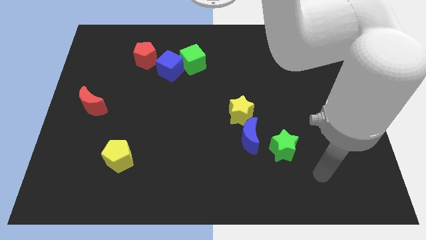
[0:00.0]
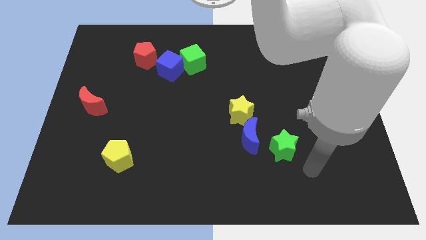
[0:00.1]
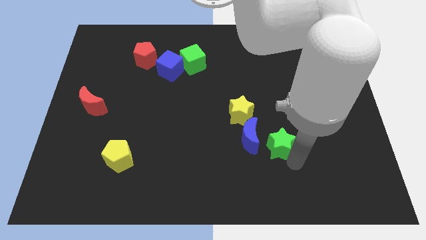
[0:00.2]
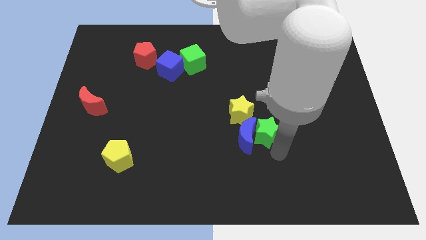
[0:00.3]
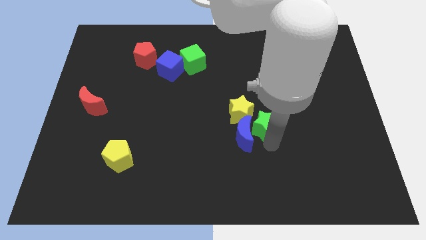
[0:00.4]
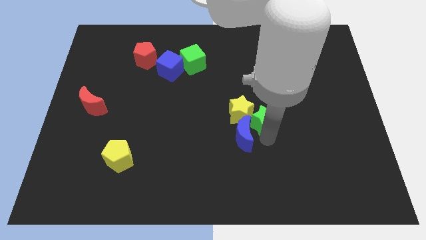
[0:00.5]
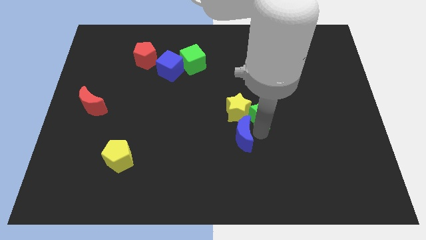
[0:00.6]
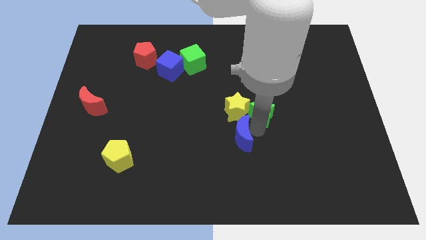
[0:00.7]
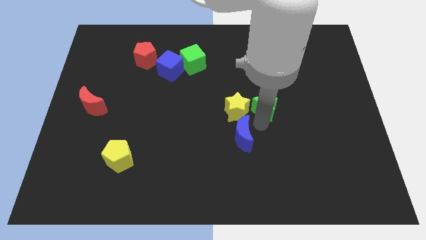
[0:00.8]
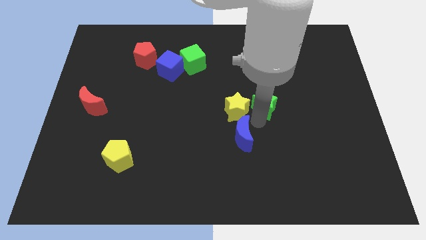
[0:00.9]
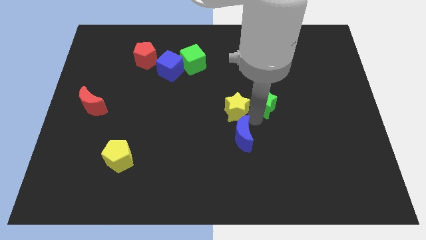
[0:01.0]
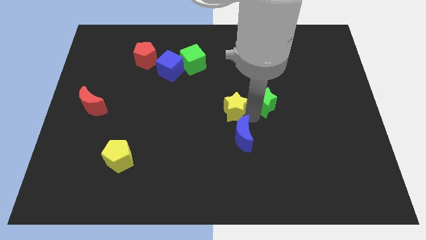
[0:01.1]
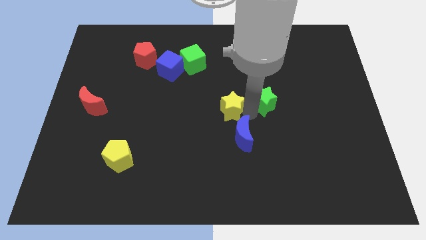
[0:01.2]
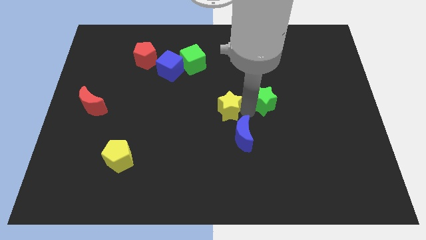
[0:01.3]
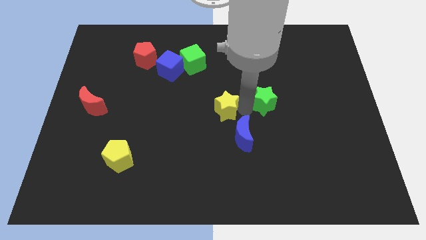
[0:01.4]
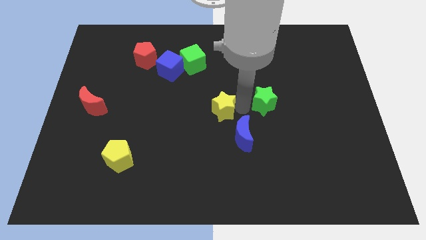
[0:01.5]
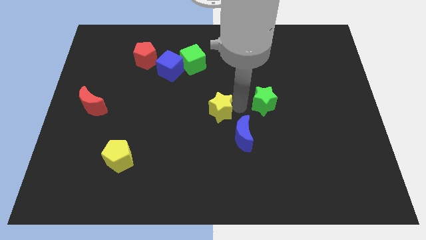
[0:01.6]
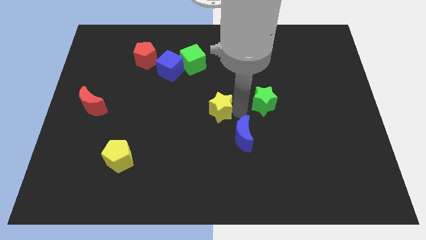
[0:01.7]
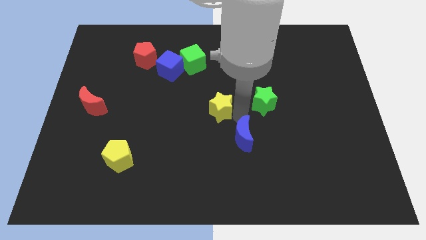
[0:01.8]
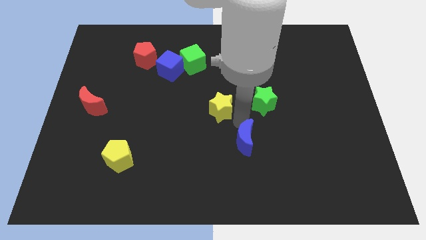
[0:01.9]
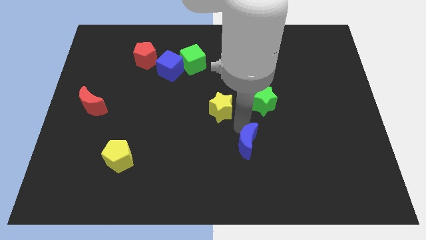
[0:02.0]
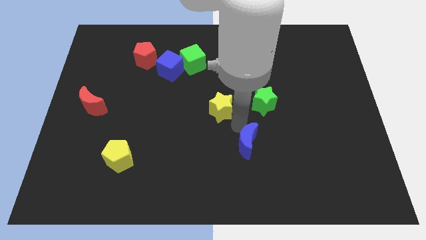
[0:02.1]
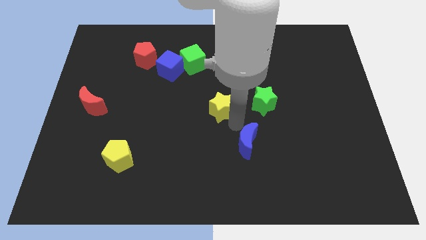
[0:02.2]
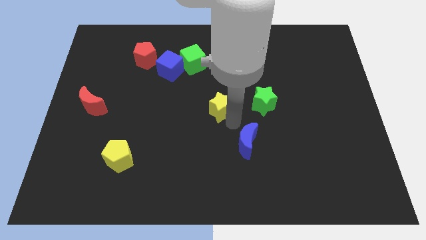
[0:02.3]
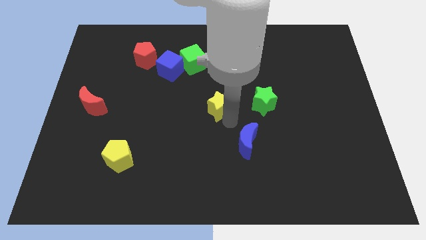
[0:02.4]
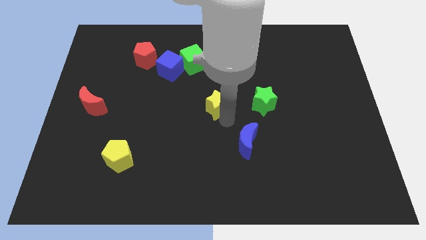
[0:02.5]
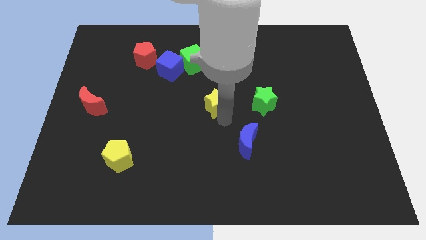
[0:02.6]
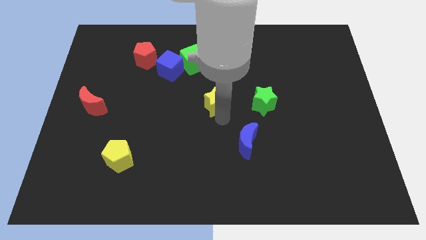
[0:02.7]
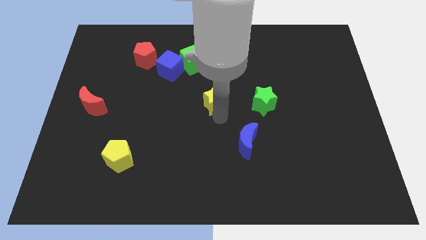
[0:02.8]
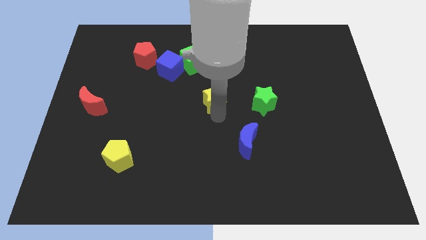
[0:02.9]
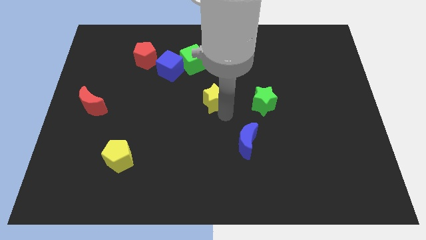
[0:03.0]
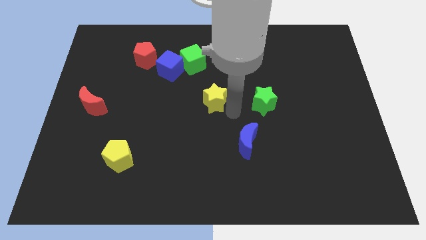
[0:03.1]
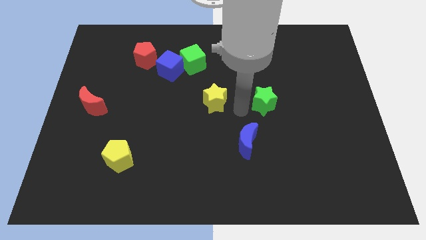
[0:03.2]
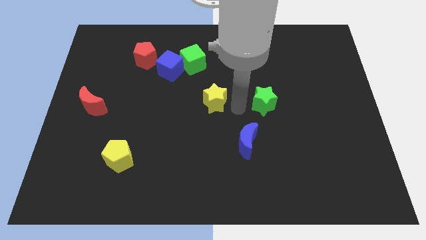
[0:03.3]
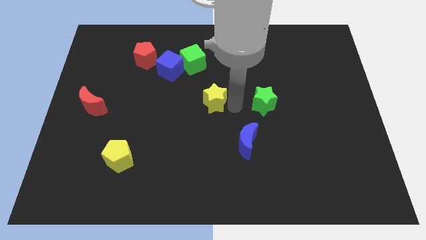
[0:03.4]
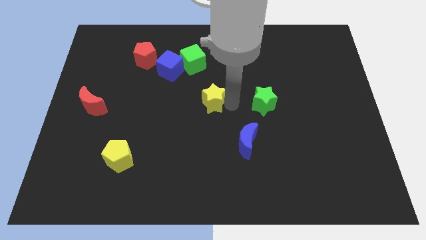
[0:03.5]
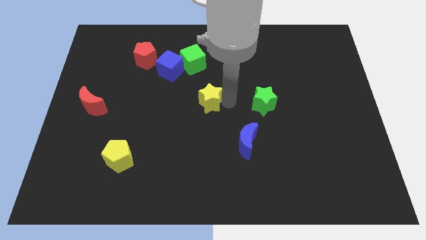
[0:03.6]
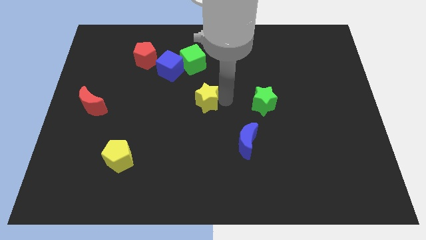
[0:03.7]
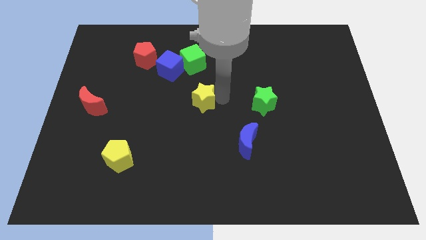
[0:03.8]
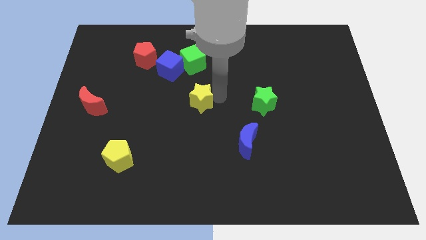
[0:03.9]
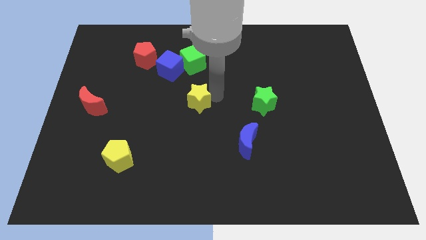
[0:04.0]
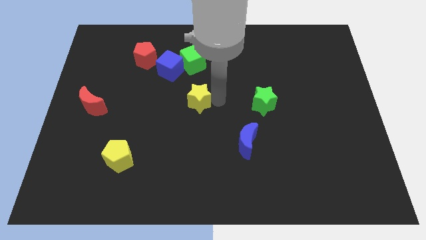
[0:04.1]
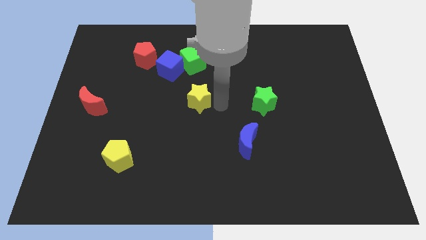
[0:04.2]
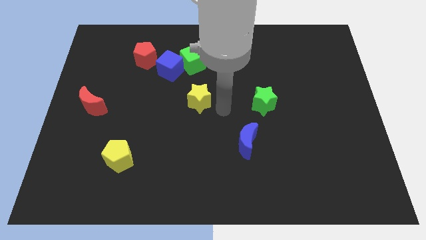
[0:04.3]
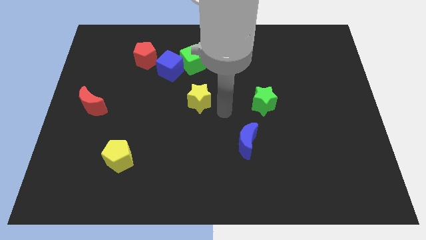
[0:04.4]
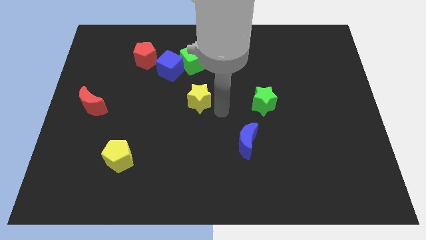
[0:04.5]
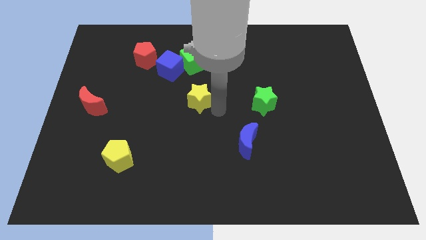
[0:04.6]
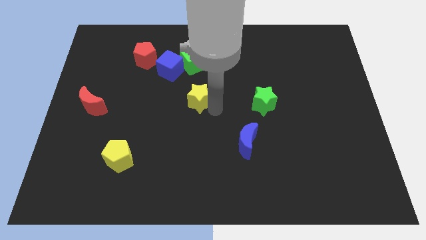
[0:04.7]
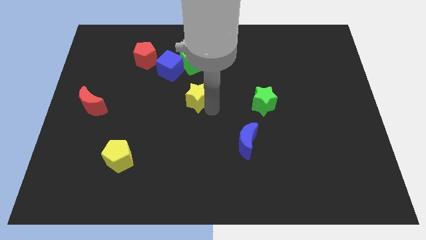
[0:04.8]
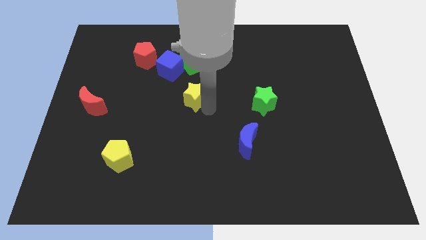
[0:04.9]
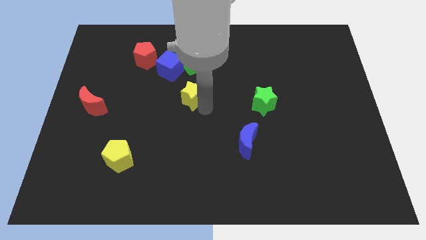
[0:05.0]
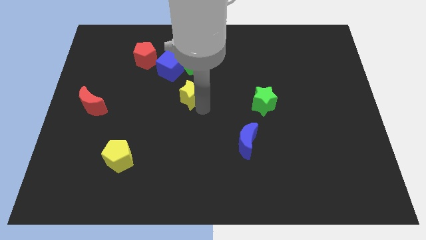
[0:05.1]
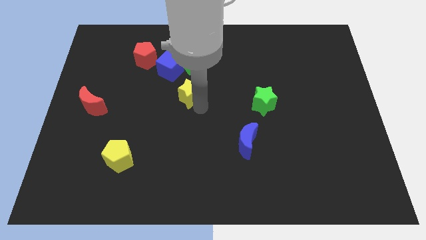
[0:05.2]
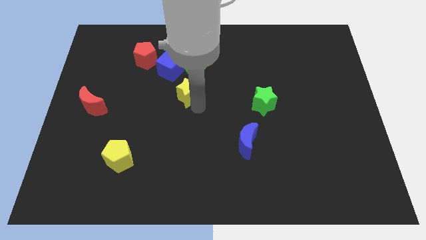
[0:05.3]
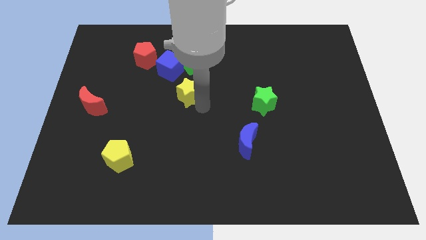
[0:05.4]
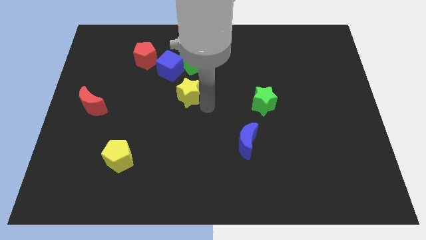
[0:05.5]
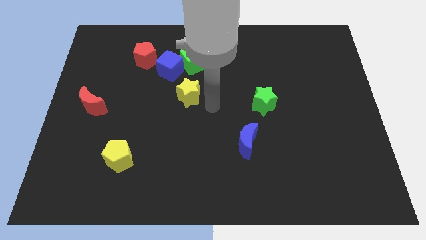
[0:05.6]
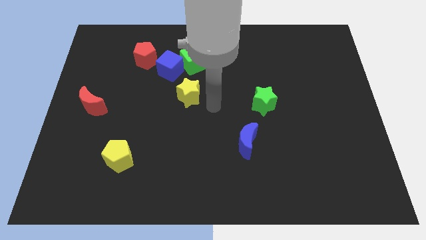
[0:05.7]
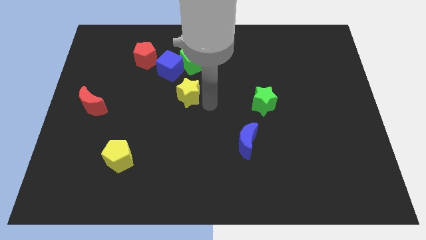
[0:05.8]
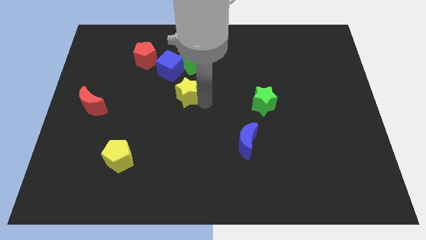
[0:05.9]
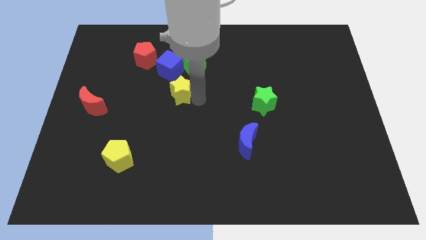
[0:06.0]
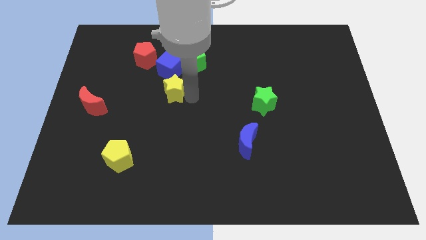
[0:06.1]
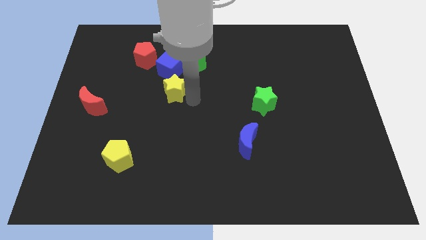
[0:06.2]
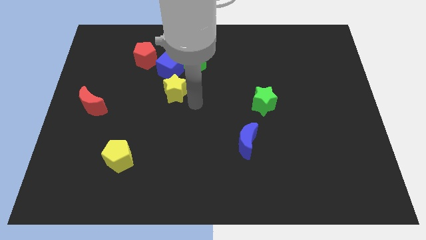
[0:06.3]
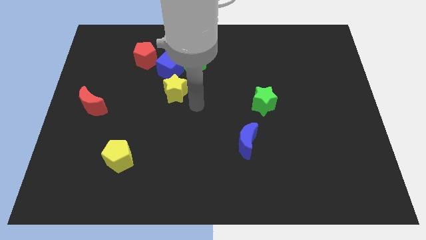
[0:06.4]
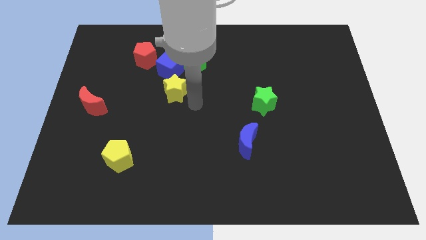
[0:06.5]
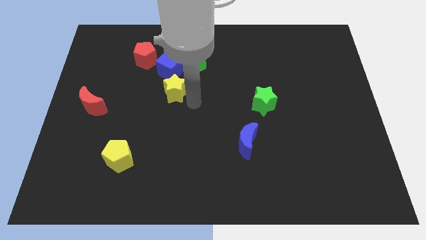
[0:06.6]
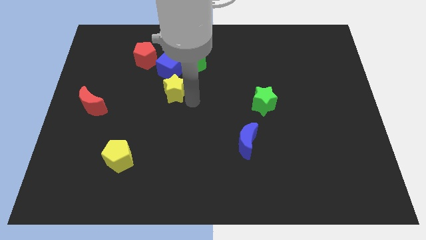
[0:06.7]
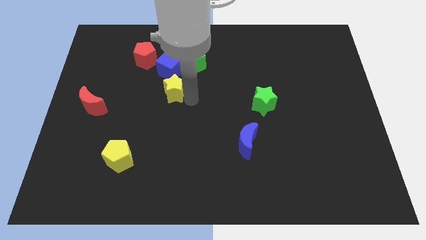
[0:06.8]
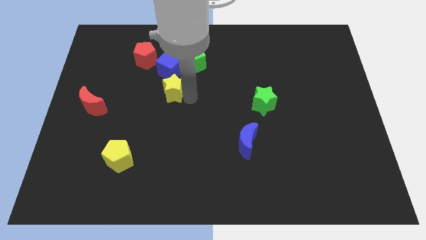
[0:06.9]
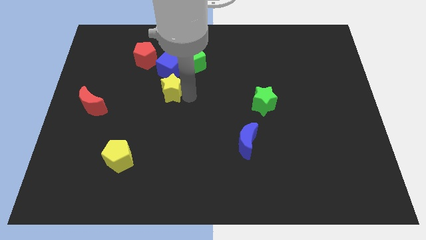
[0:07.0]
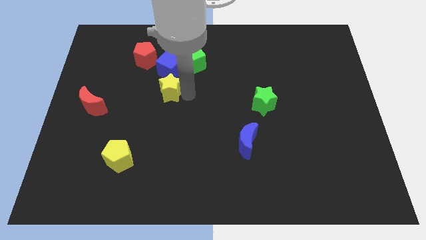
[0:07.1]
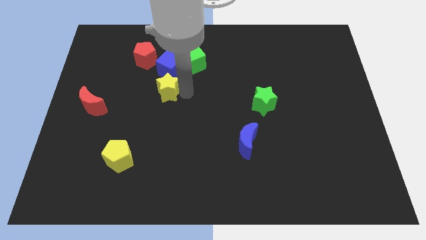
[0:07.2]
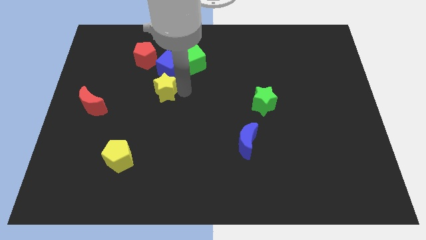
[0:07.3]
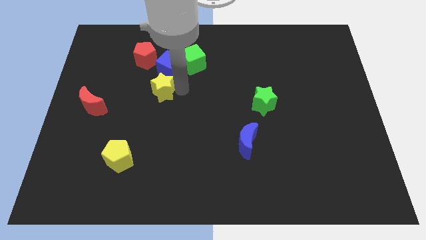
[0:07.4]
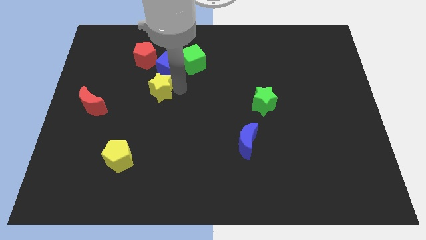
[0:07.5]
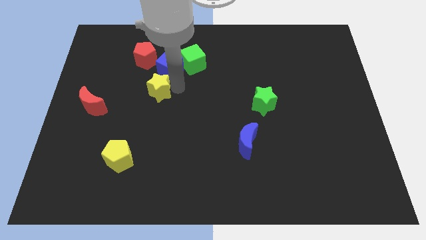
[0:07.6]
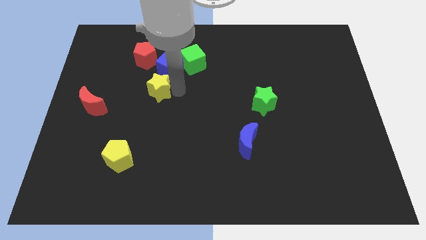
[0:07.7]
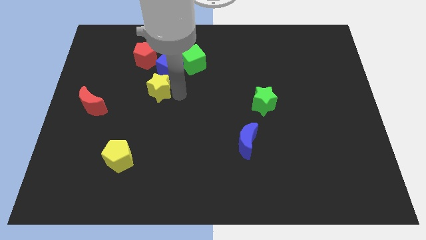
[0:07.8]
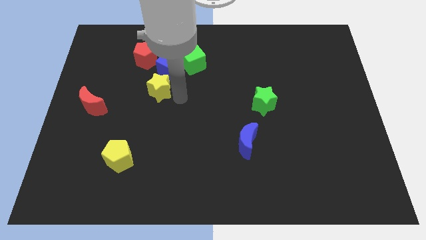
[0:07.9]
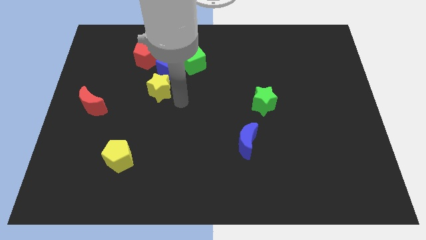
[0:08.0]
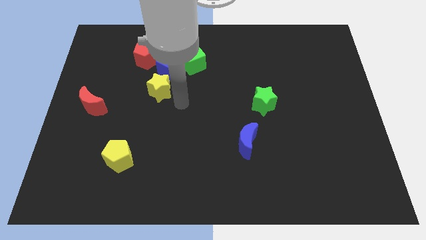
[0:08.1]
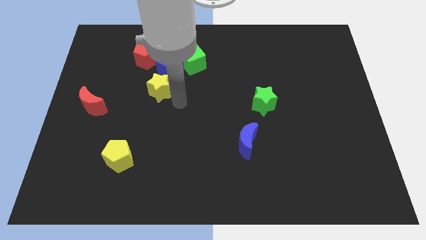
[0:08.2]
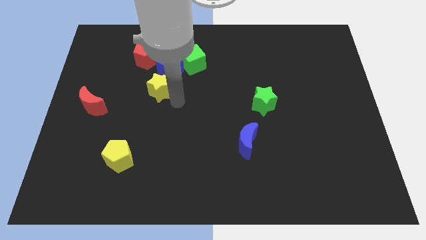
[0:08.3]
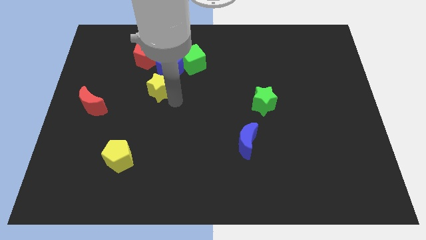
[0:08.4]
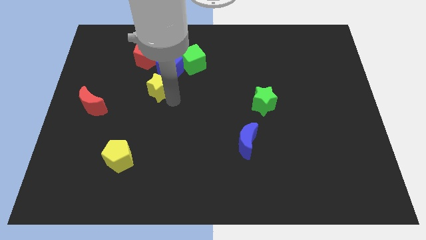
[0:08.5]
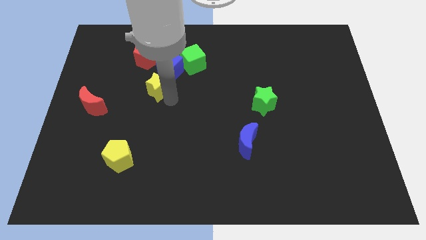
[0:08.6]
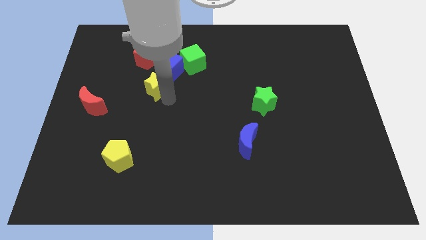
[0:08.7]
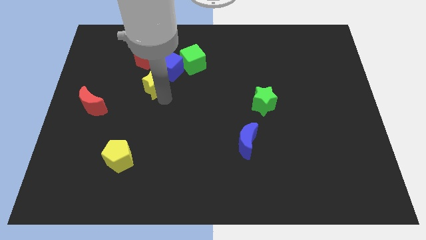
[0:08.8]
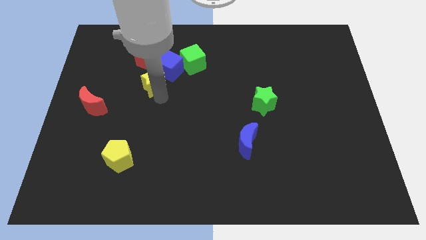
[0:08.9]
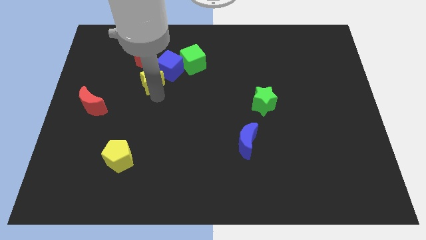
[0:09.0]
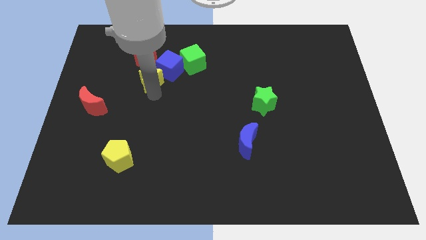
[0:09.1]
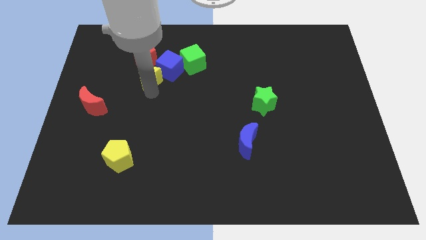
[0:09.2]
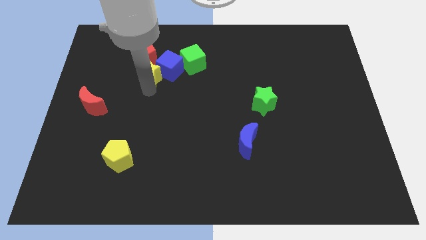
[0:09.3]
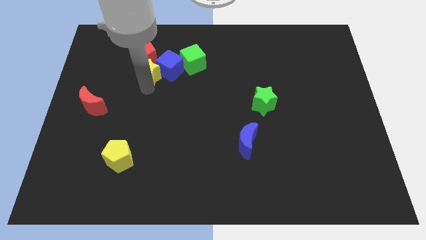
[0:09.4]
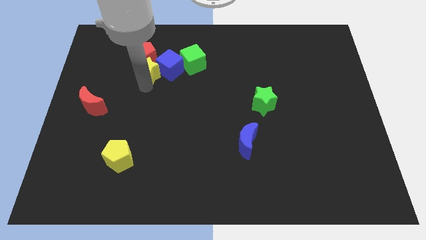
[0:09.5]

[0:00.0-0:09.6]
put the yellow star close to the red pentagon
